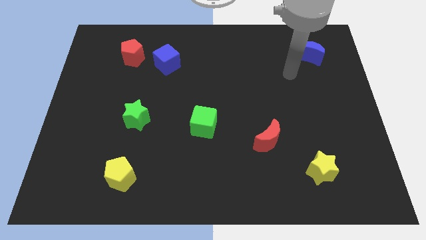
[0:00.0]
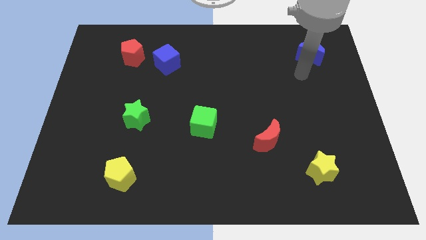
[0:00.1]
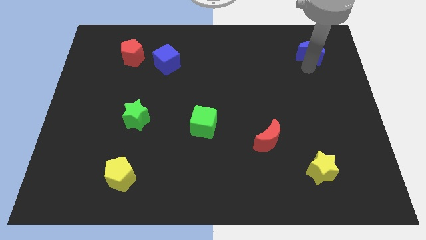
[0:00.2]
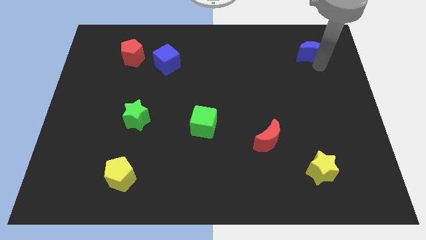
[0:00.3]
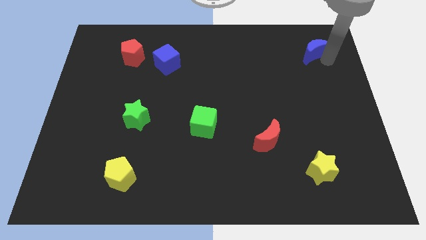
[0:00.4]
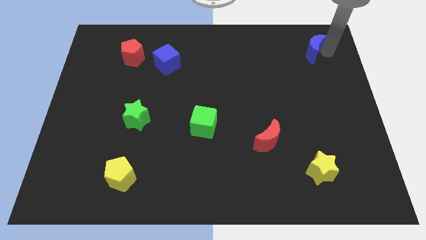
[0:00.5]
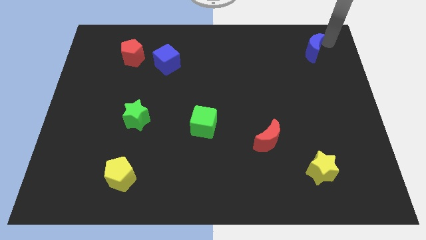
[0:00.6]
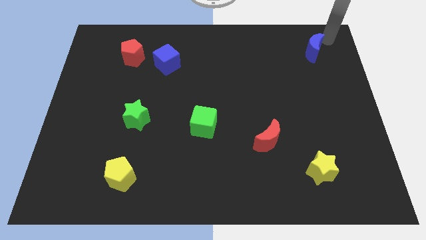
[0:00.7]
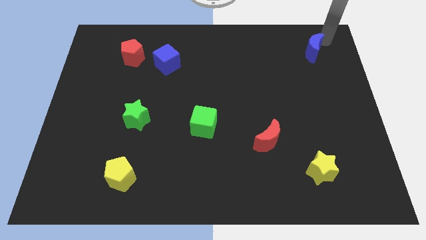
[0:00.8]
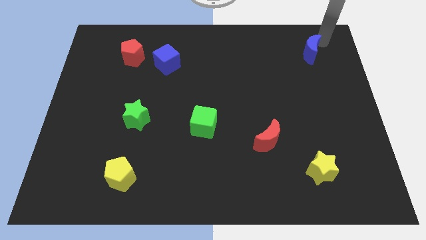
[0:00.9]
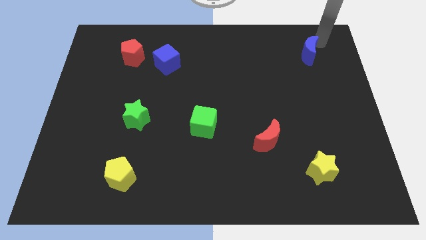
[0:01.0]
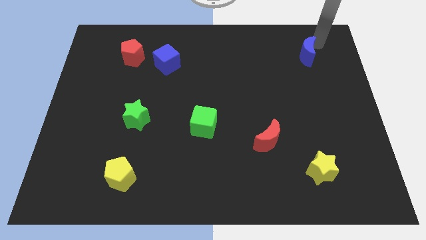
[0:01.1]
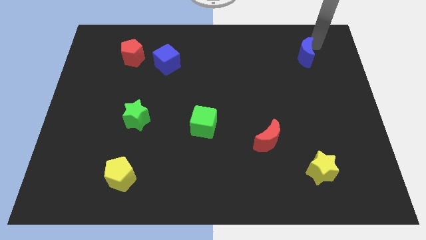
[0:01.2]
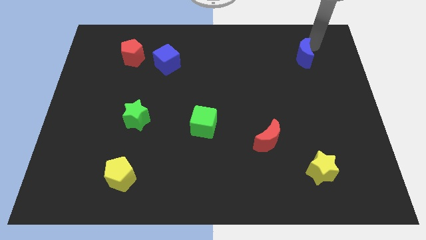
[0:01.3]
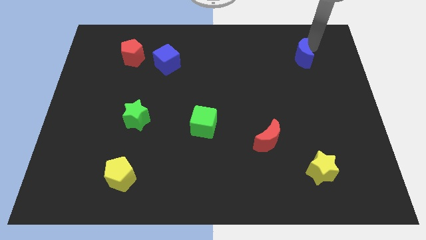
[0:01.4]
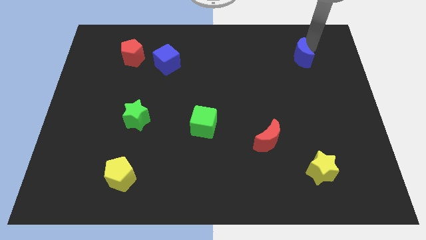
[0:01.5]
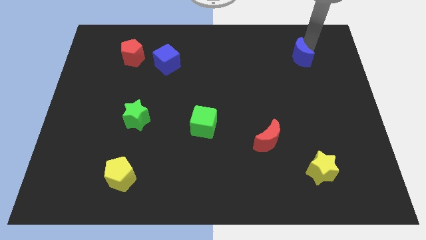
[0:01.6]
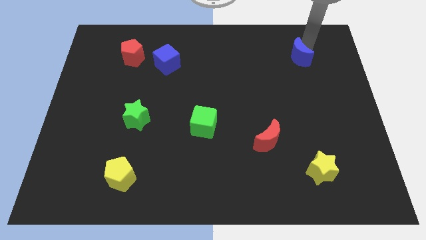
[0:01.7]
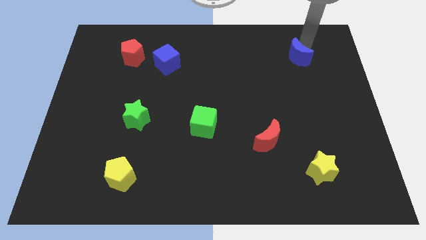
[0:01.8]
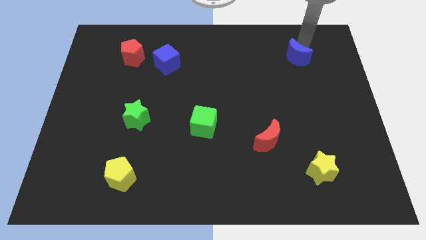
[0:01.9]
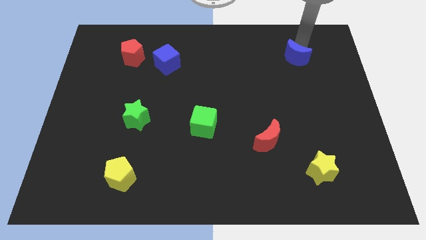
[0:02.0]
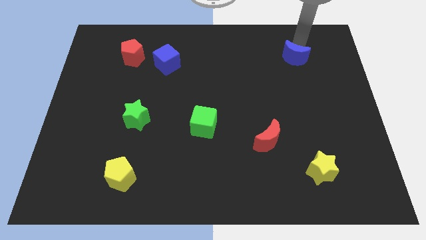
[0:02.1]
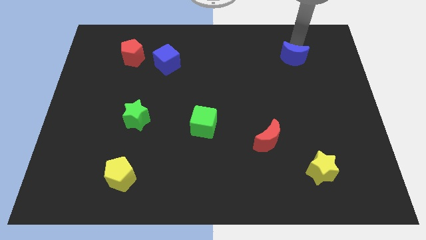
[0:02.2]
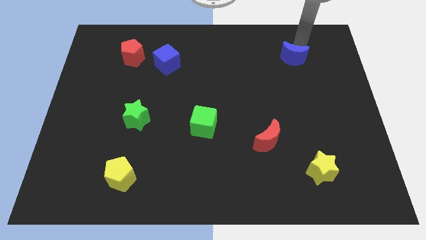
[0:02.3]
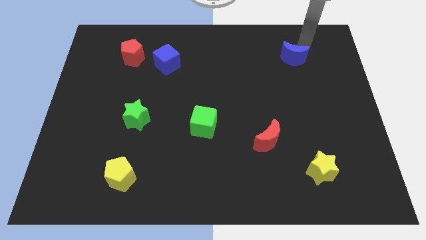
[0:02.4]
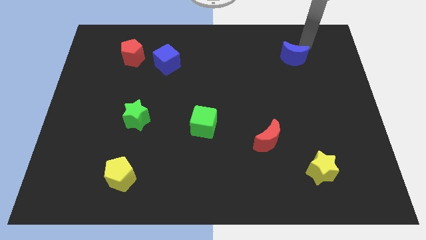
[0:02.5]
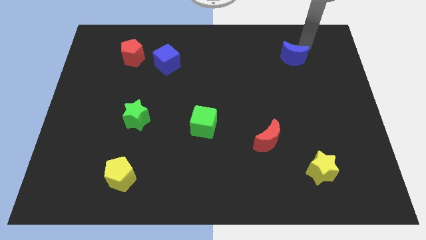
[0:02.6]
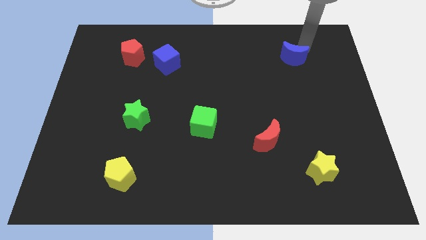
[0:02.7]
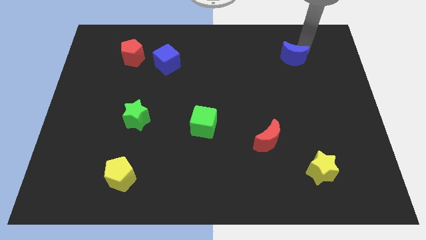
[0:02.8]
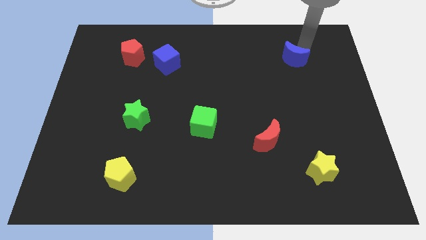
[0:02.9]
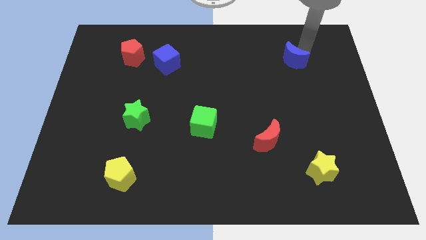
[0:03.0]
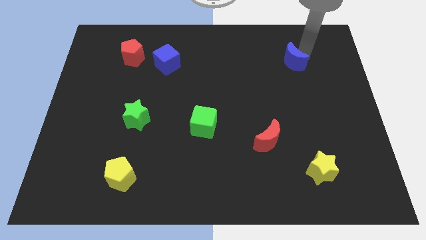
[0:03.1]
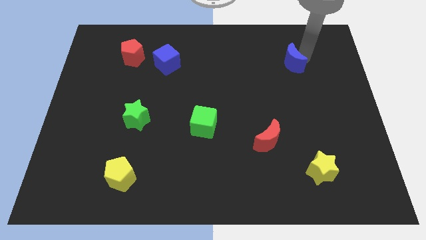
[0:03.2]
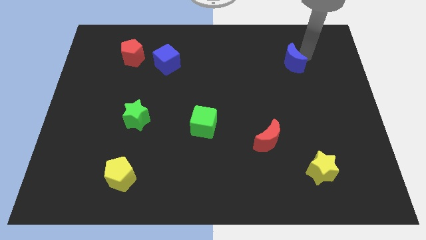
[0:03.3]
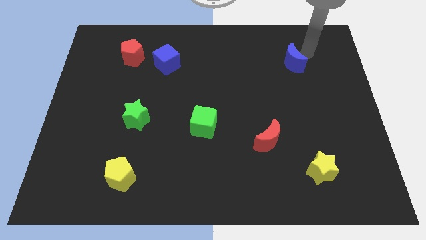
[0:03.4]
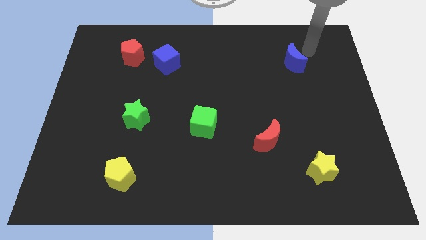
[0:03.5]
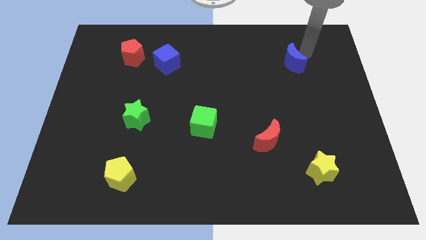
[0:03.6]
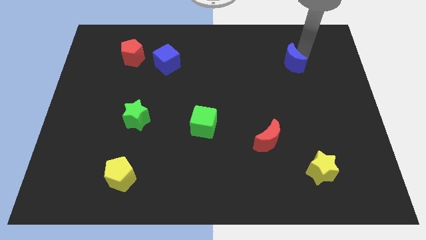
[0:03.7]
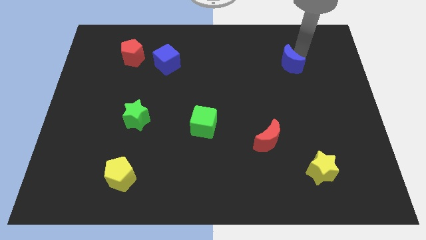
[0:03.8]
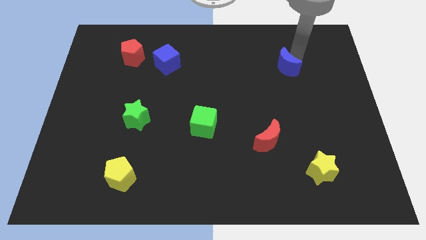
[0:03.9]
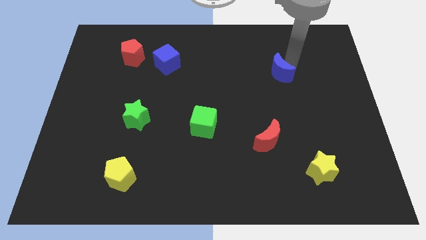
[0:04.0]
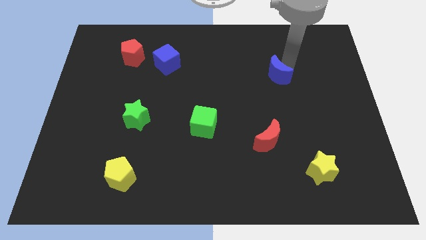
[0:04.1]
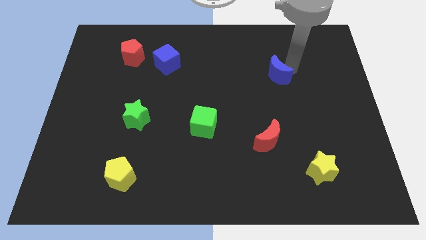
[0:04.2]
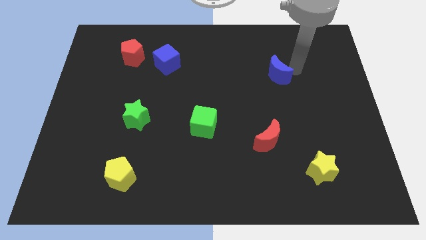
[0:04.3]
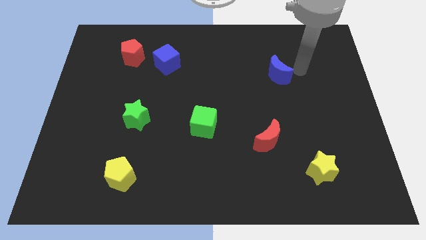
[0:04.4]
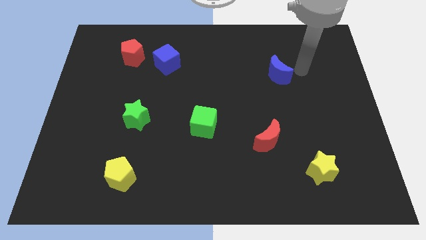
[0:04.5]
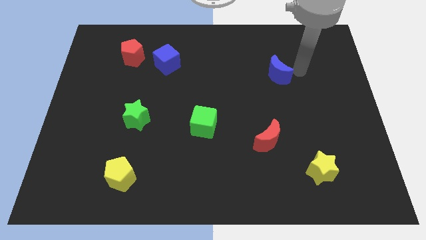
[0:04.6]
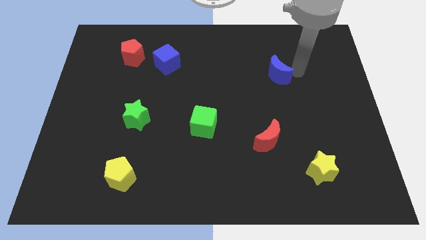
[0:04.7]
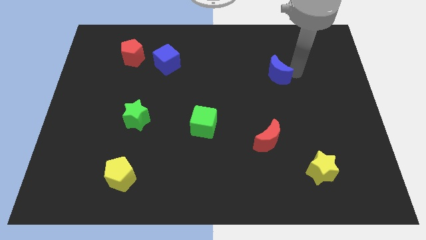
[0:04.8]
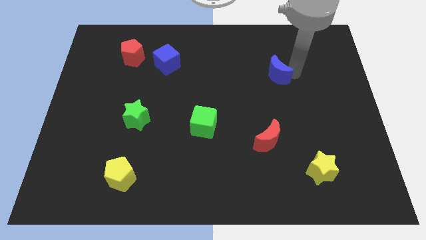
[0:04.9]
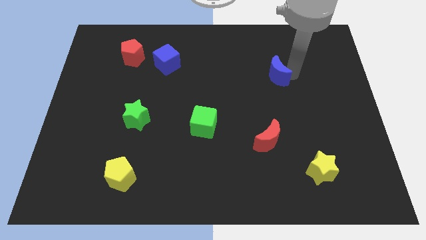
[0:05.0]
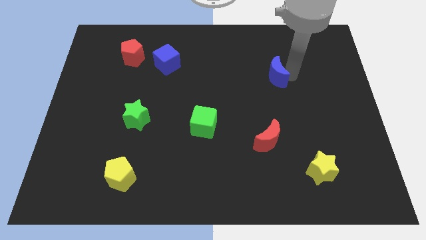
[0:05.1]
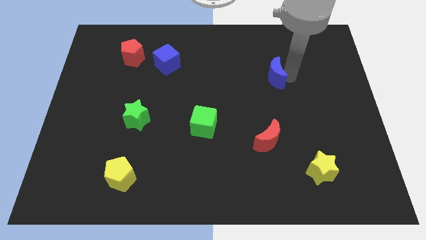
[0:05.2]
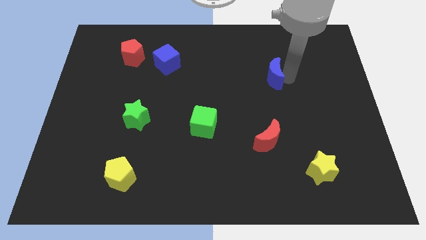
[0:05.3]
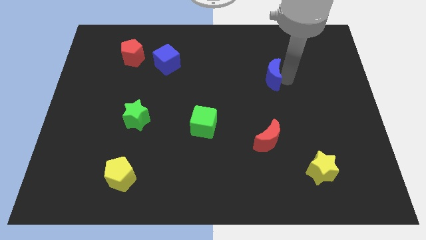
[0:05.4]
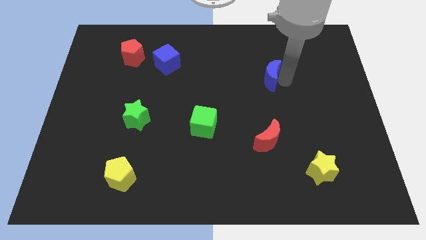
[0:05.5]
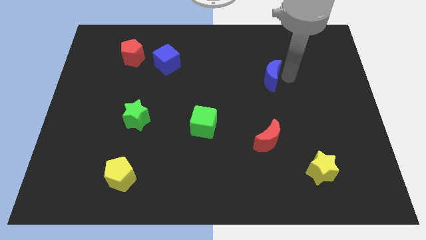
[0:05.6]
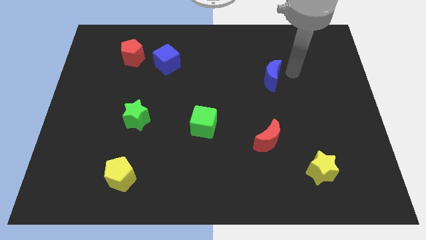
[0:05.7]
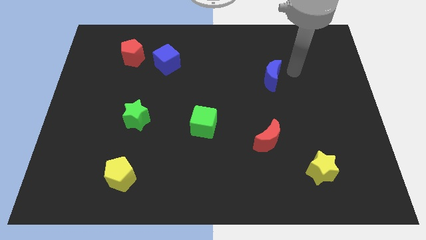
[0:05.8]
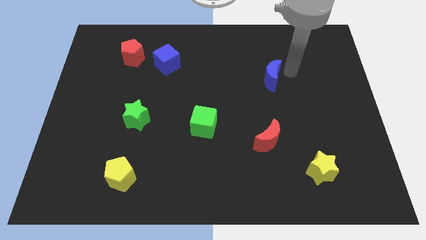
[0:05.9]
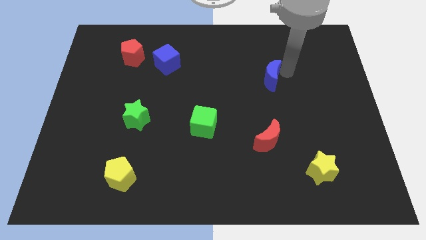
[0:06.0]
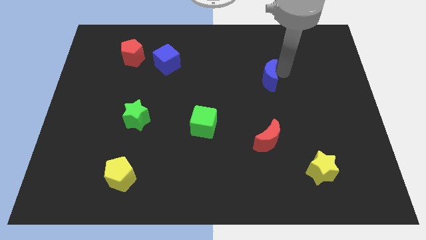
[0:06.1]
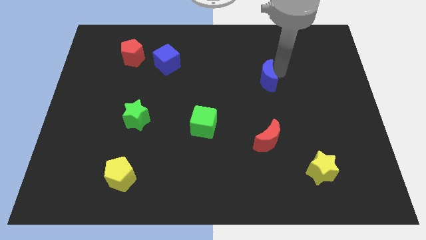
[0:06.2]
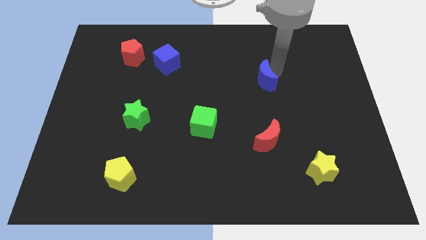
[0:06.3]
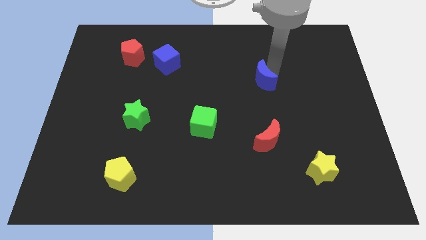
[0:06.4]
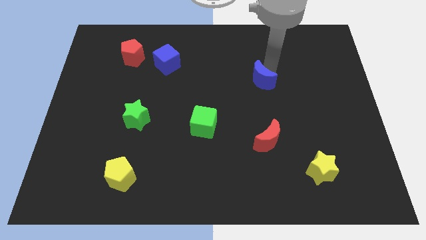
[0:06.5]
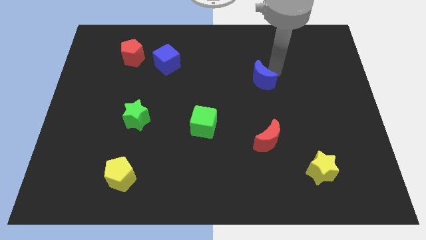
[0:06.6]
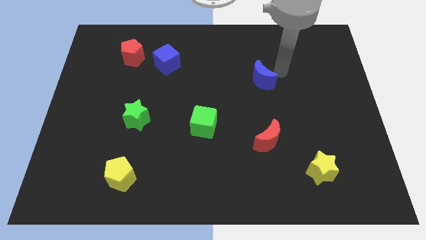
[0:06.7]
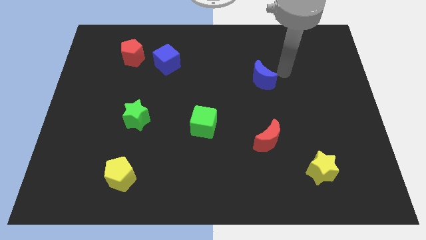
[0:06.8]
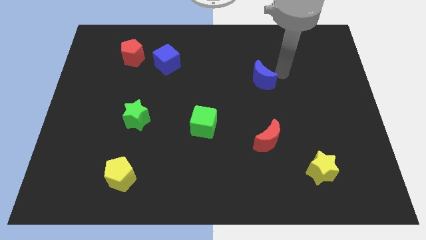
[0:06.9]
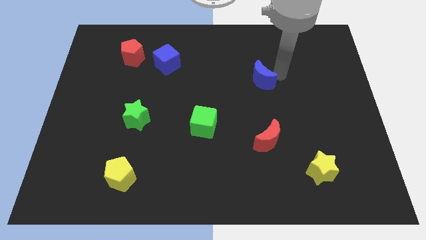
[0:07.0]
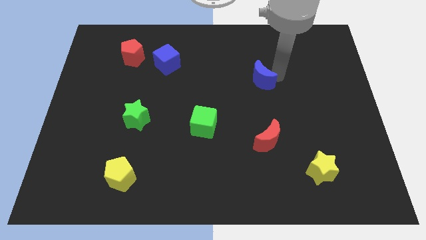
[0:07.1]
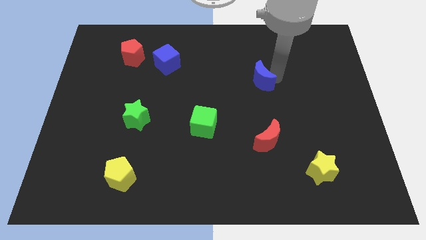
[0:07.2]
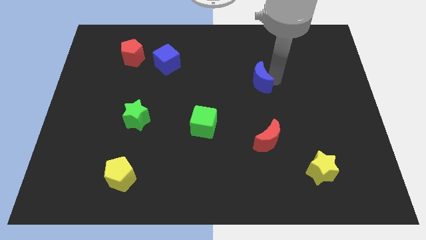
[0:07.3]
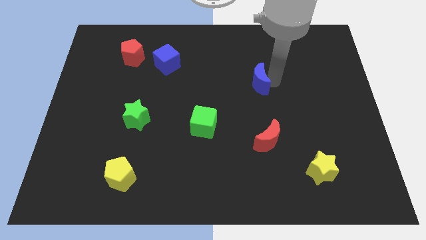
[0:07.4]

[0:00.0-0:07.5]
slide the blue moon to the middle
